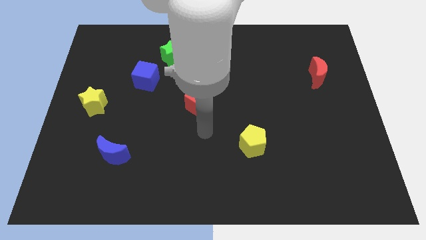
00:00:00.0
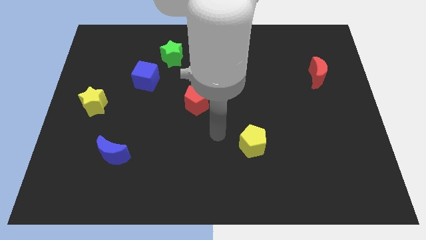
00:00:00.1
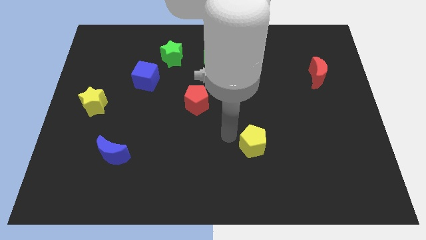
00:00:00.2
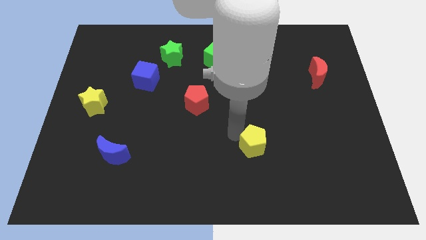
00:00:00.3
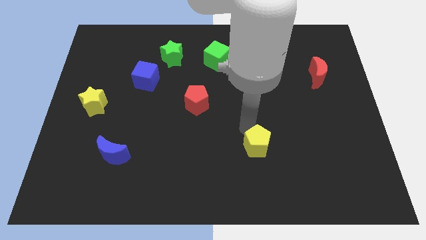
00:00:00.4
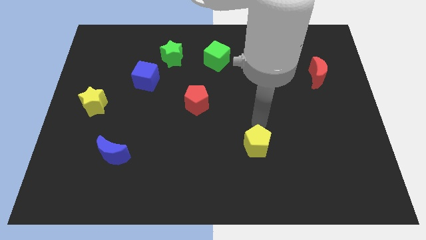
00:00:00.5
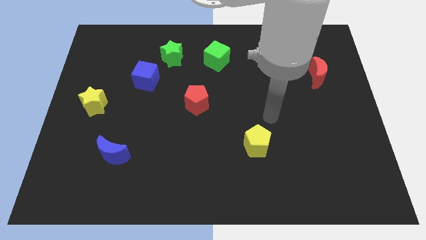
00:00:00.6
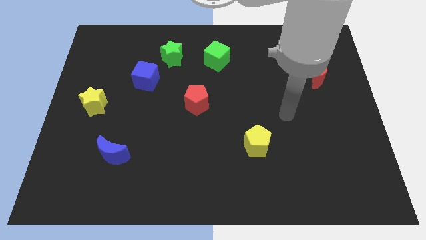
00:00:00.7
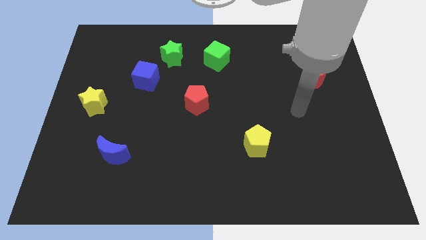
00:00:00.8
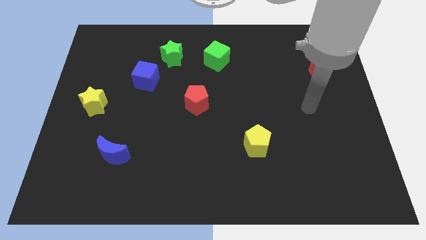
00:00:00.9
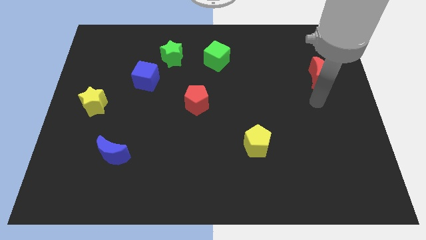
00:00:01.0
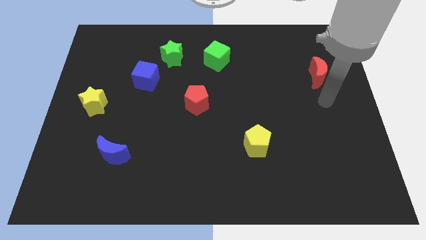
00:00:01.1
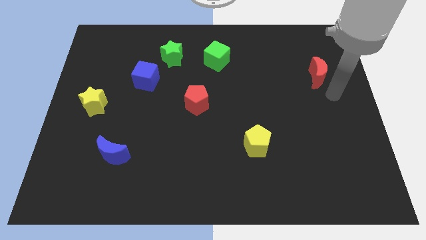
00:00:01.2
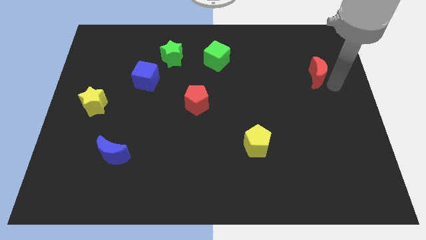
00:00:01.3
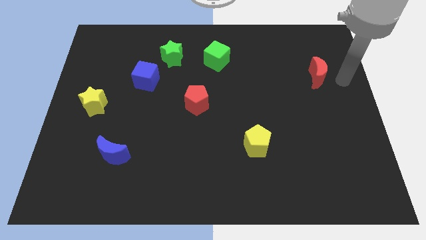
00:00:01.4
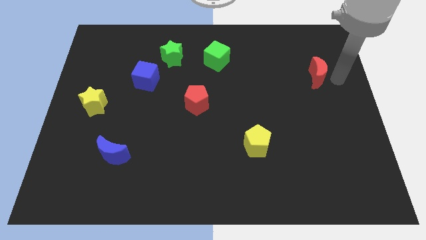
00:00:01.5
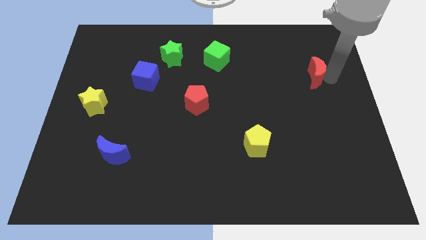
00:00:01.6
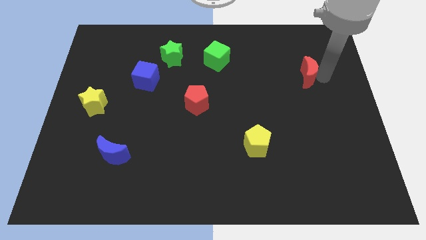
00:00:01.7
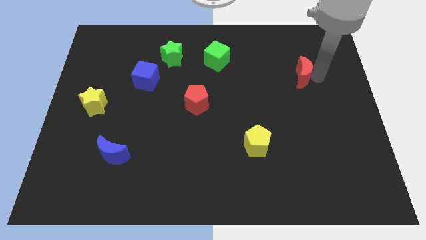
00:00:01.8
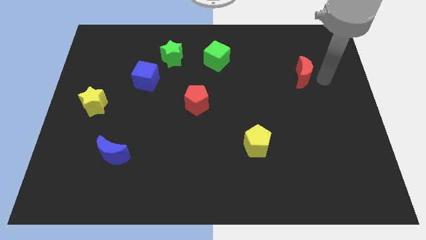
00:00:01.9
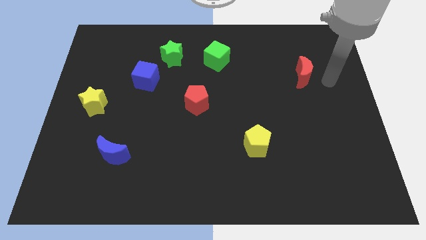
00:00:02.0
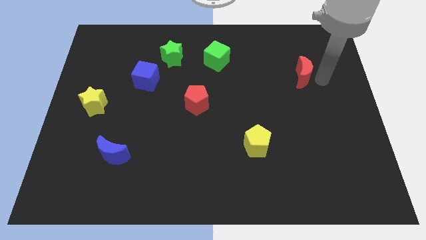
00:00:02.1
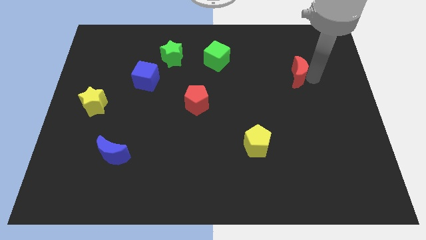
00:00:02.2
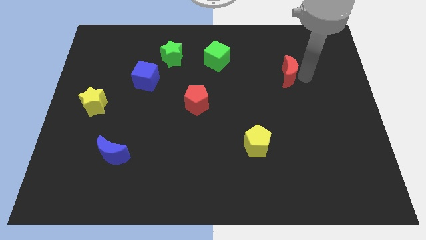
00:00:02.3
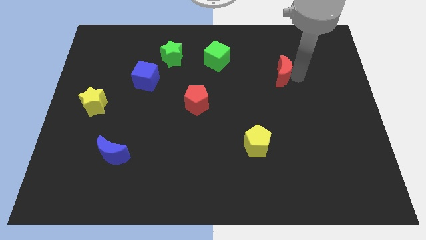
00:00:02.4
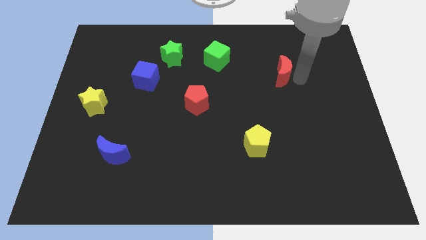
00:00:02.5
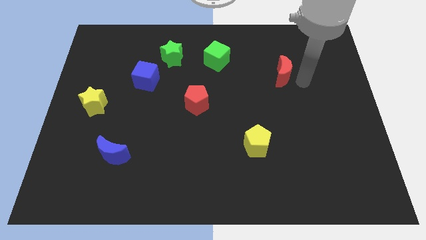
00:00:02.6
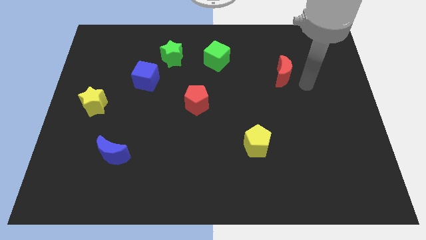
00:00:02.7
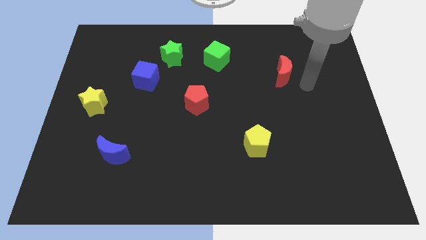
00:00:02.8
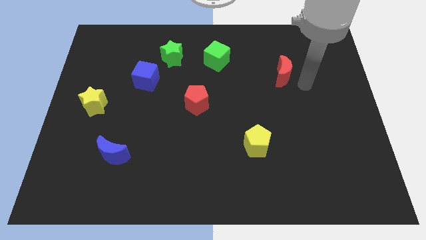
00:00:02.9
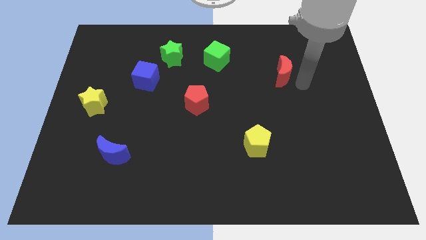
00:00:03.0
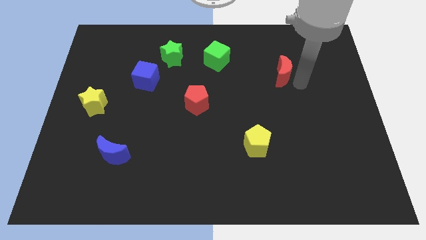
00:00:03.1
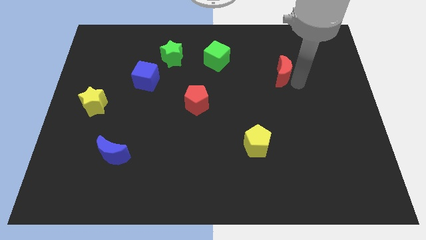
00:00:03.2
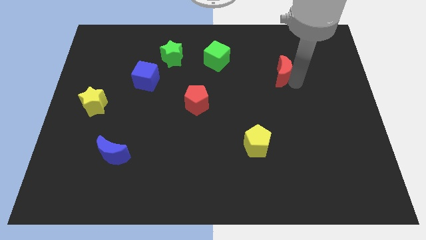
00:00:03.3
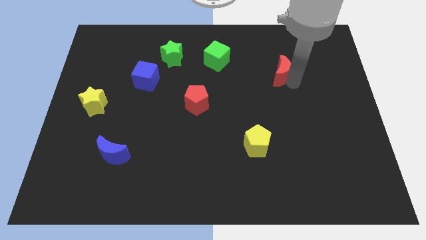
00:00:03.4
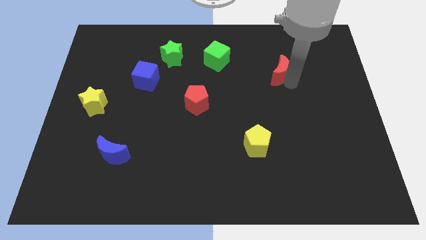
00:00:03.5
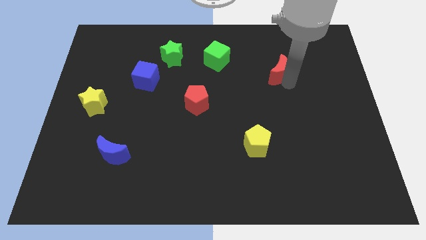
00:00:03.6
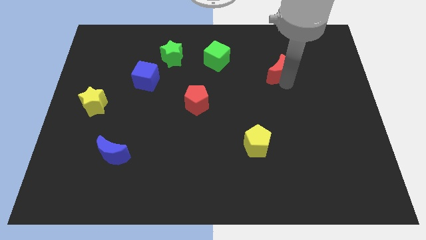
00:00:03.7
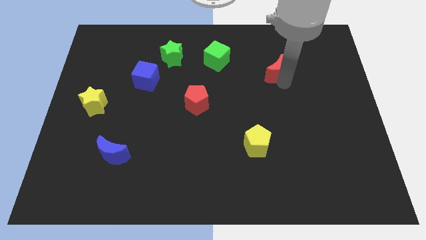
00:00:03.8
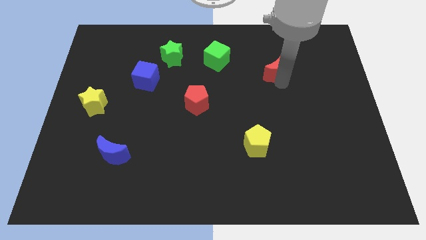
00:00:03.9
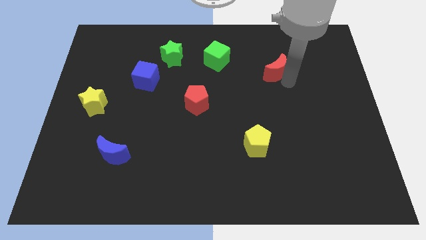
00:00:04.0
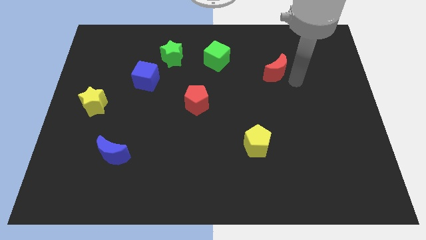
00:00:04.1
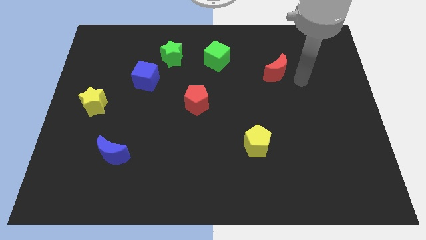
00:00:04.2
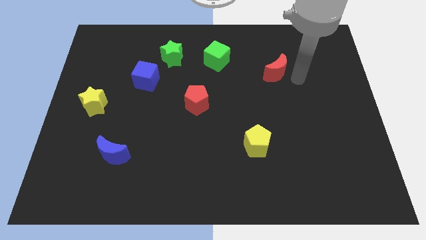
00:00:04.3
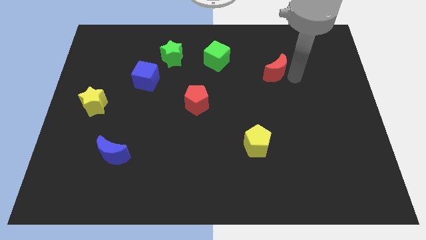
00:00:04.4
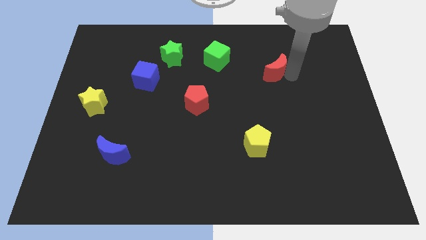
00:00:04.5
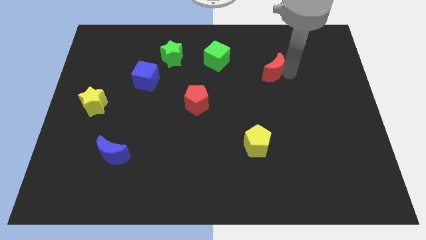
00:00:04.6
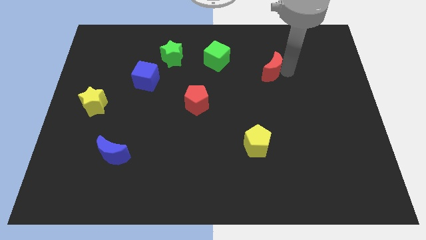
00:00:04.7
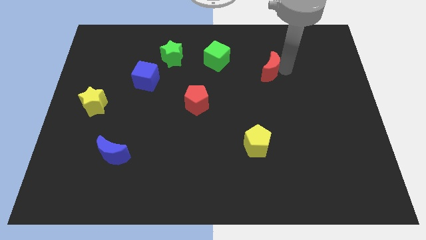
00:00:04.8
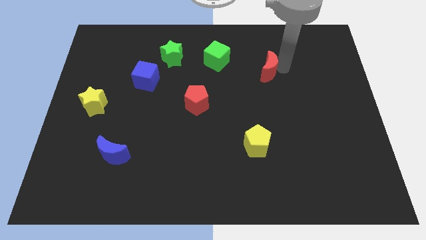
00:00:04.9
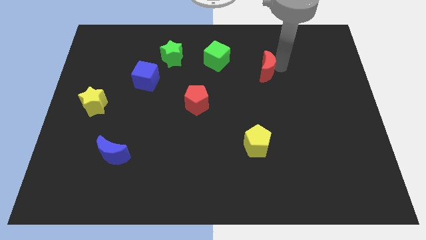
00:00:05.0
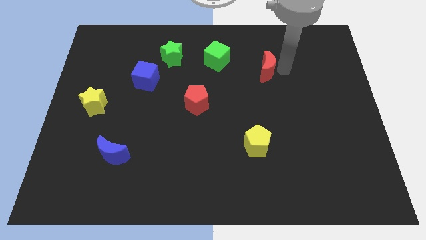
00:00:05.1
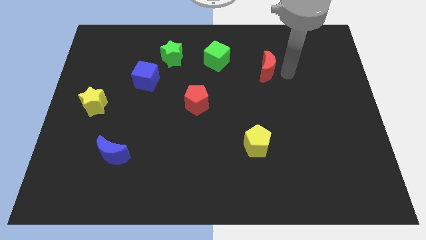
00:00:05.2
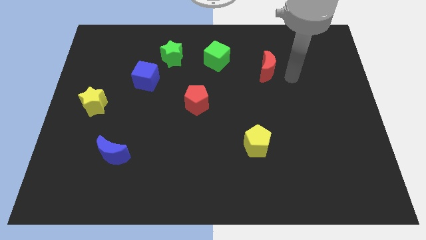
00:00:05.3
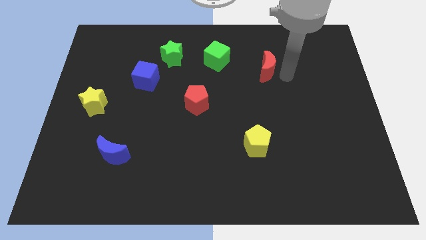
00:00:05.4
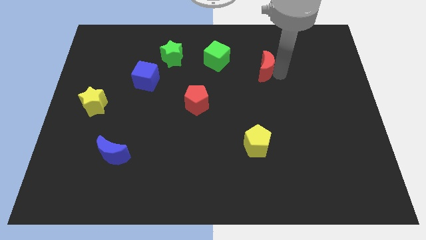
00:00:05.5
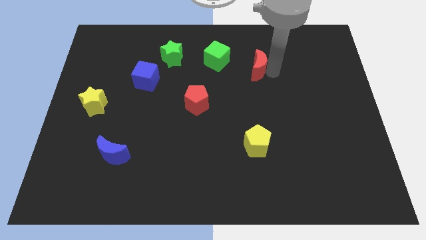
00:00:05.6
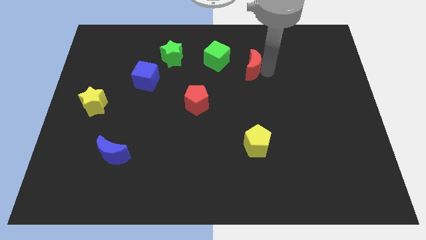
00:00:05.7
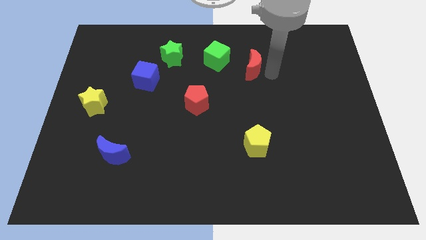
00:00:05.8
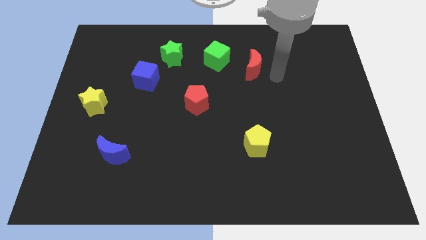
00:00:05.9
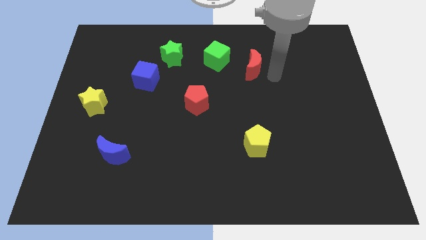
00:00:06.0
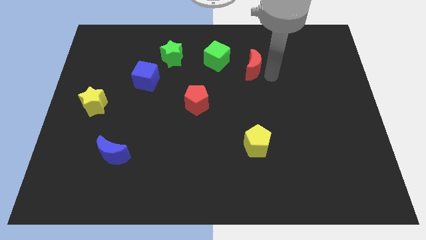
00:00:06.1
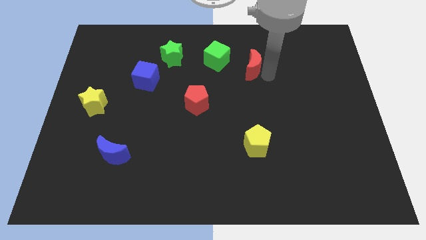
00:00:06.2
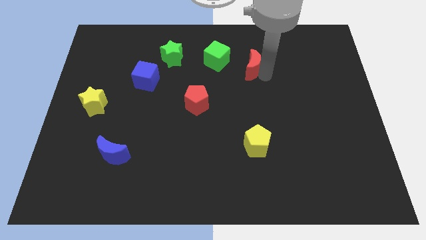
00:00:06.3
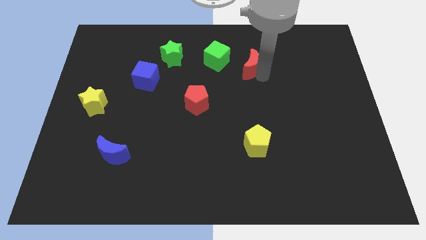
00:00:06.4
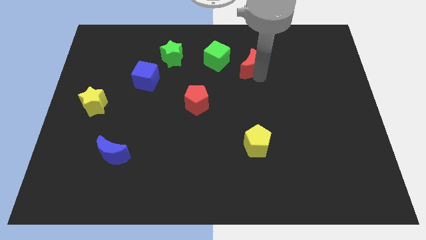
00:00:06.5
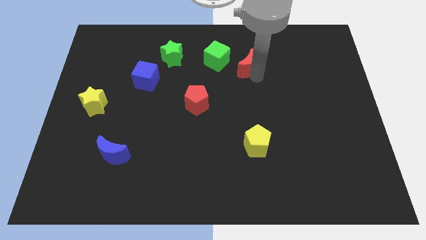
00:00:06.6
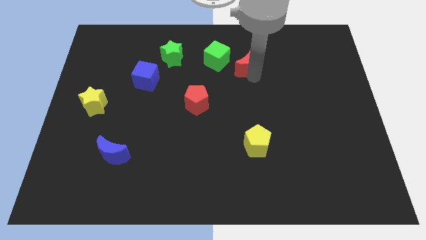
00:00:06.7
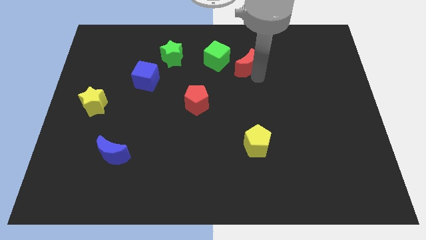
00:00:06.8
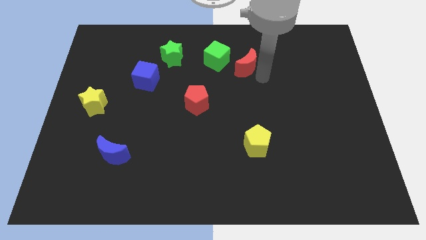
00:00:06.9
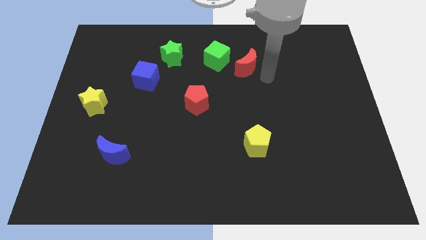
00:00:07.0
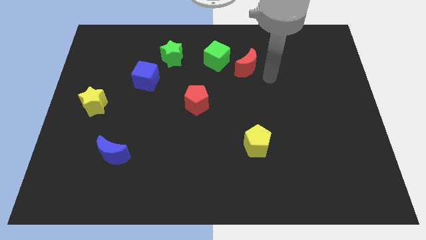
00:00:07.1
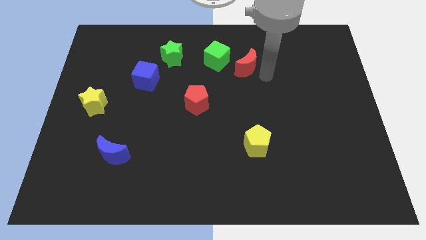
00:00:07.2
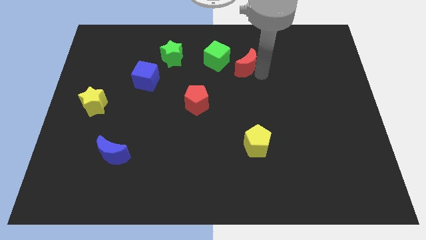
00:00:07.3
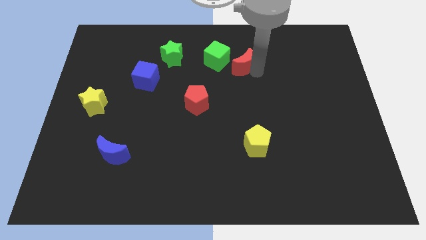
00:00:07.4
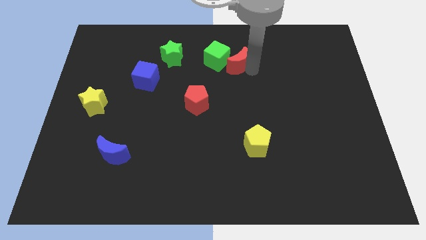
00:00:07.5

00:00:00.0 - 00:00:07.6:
slide the red moon towards the green cube
